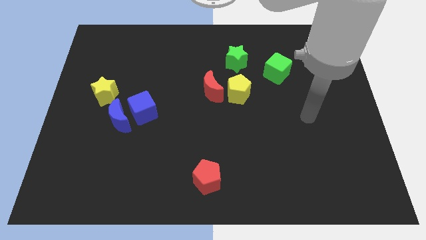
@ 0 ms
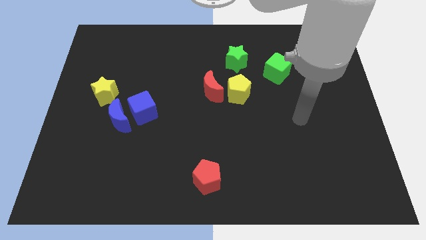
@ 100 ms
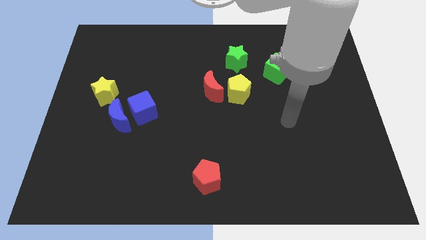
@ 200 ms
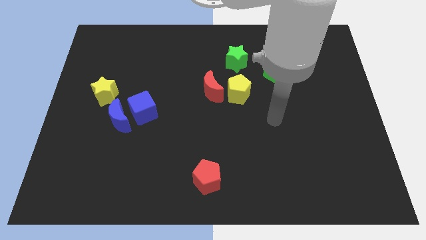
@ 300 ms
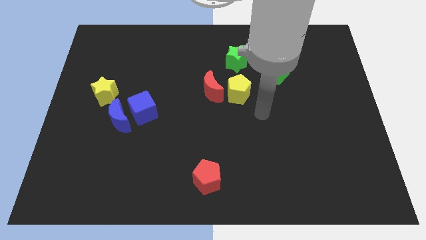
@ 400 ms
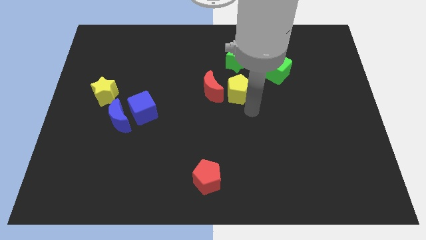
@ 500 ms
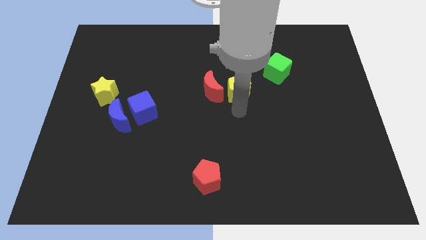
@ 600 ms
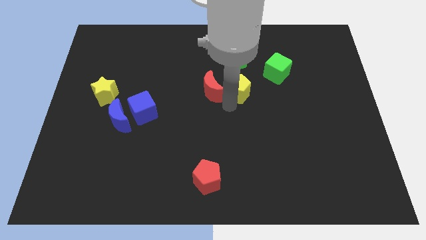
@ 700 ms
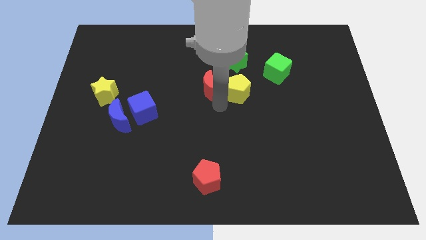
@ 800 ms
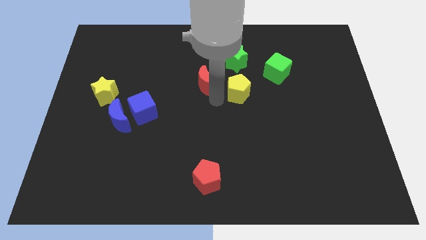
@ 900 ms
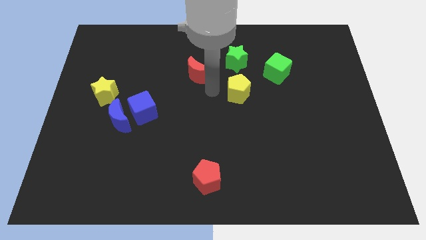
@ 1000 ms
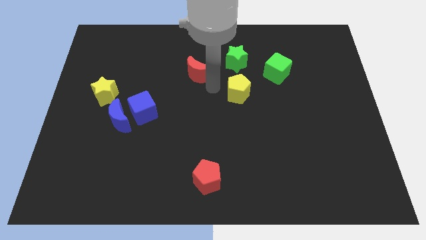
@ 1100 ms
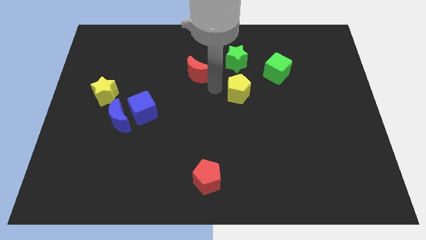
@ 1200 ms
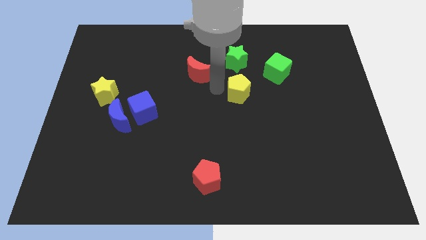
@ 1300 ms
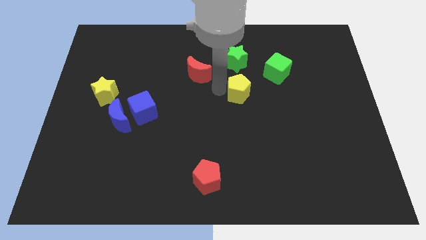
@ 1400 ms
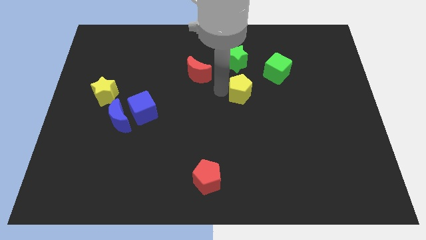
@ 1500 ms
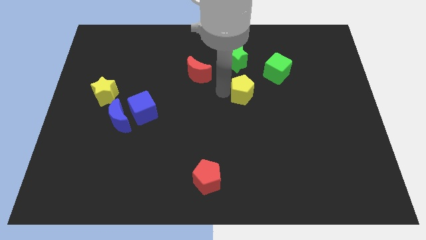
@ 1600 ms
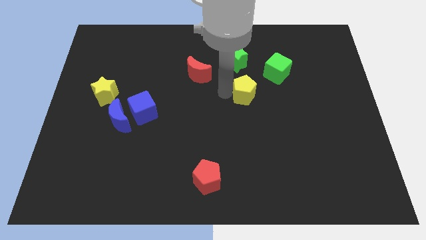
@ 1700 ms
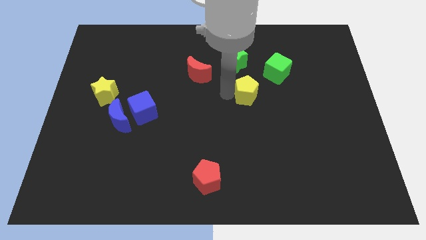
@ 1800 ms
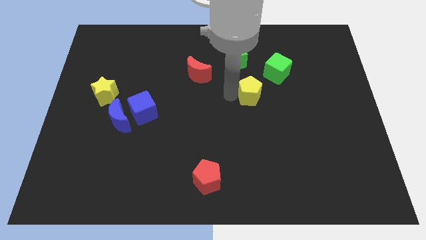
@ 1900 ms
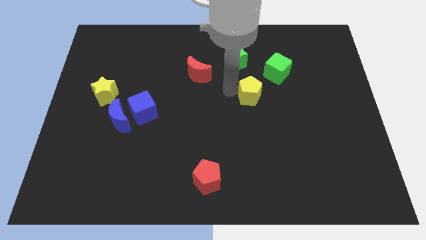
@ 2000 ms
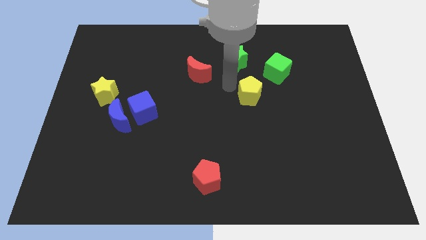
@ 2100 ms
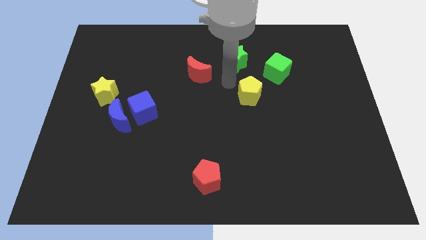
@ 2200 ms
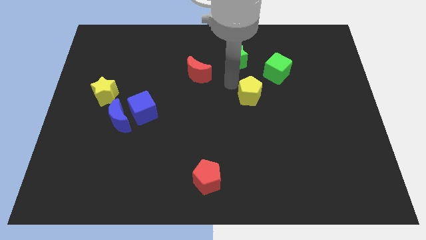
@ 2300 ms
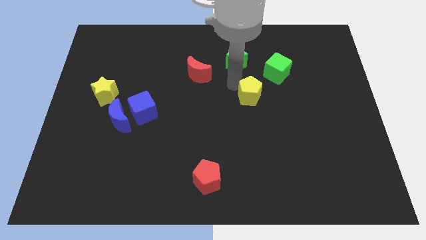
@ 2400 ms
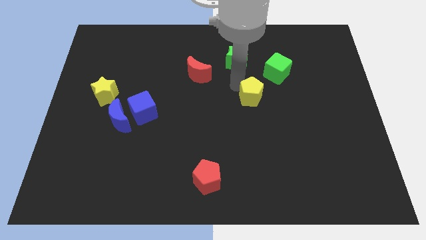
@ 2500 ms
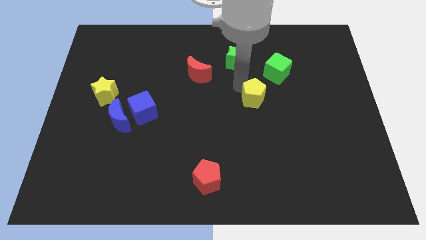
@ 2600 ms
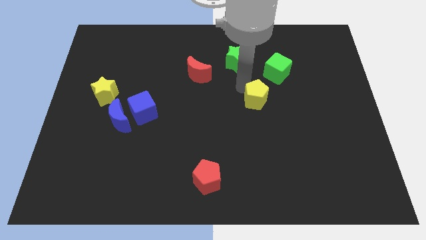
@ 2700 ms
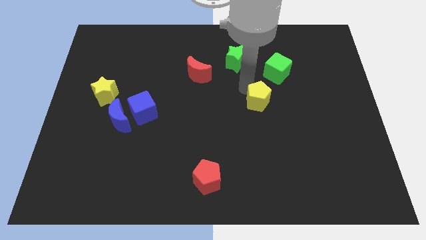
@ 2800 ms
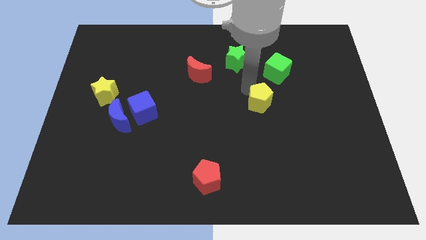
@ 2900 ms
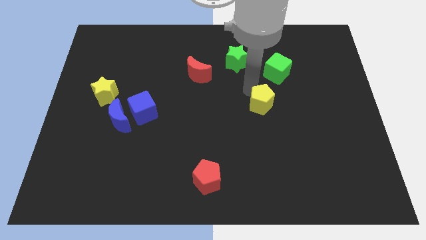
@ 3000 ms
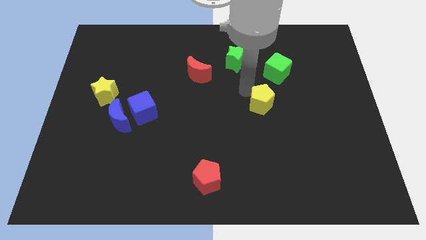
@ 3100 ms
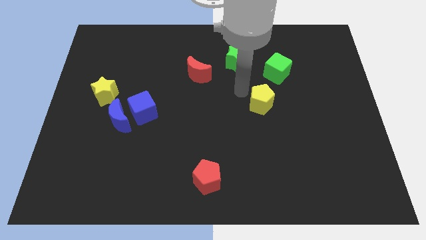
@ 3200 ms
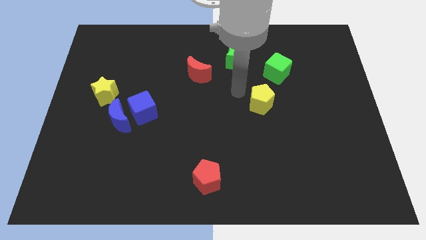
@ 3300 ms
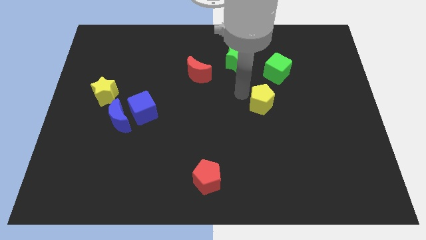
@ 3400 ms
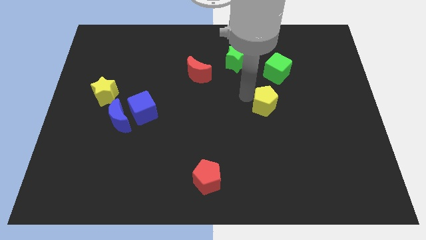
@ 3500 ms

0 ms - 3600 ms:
slightly move the yellow pentagon down and to the right

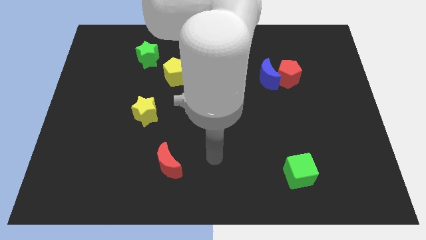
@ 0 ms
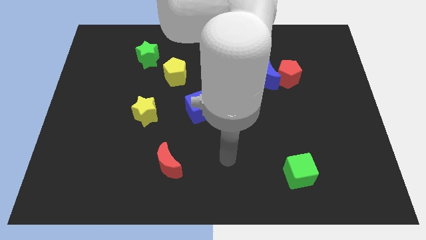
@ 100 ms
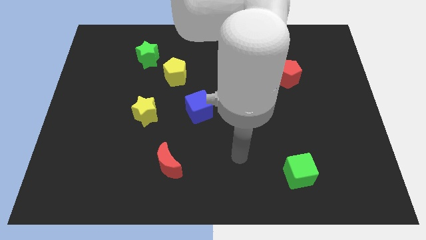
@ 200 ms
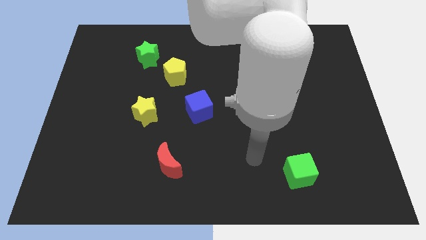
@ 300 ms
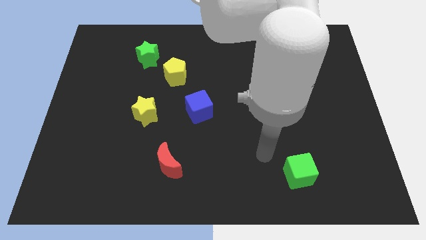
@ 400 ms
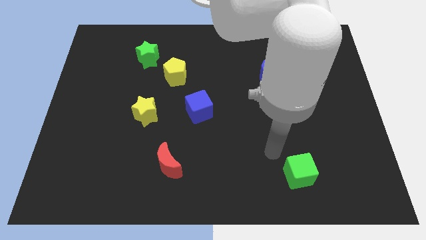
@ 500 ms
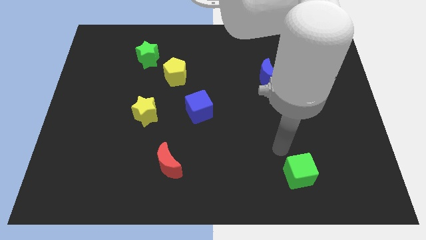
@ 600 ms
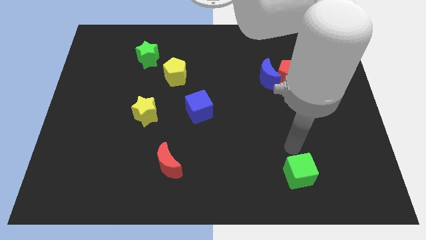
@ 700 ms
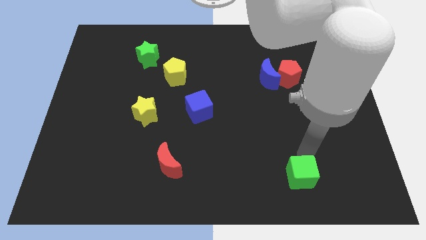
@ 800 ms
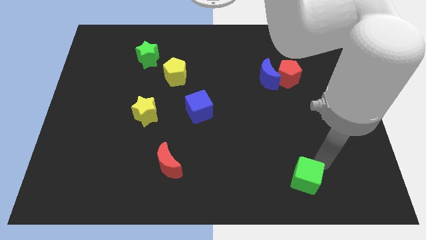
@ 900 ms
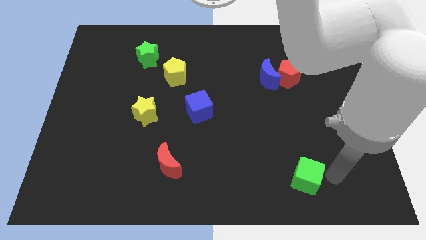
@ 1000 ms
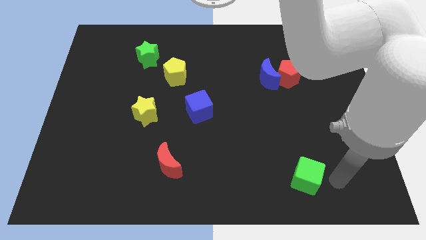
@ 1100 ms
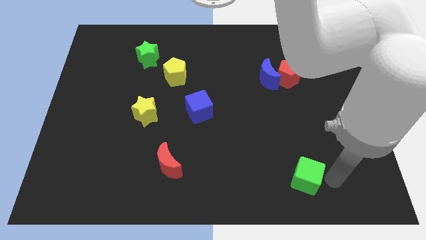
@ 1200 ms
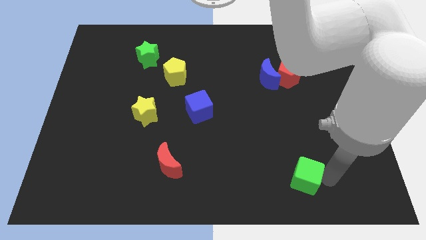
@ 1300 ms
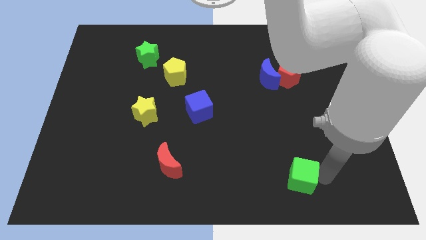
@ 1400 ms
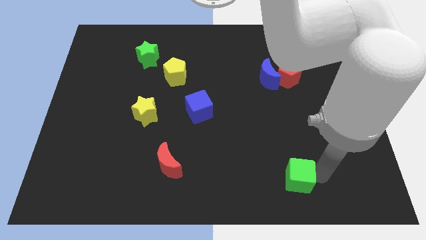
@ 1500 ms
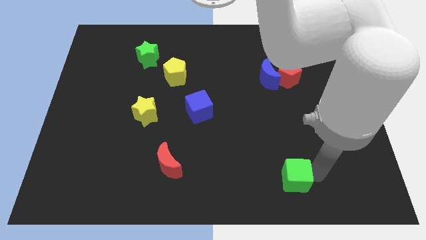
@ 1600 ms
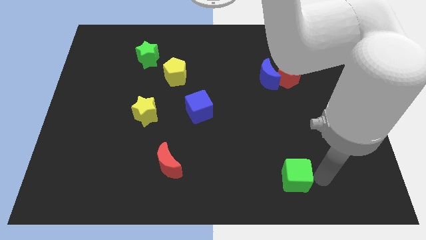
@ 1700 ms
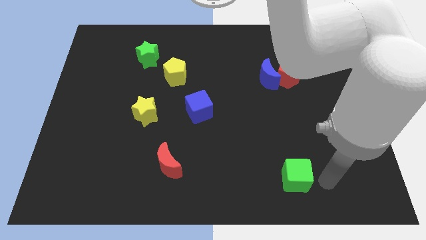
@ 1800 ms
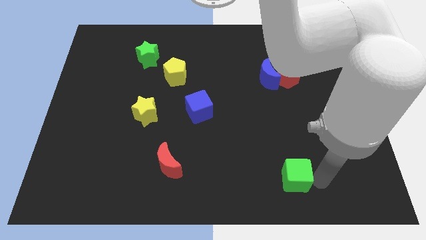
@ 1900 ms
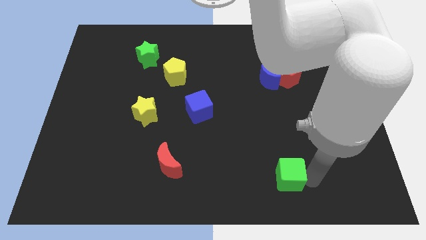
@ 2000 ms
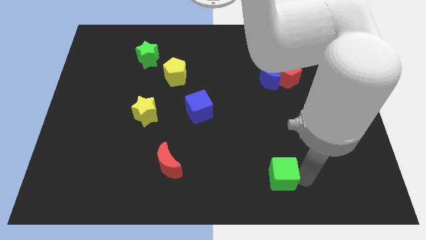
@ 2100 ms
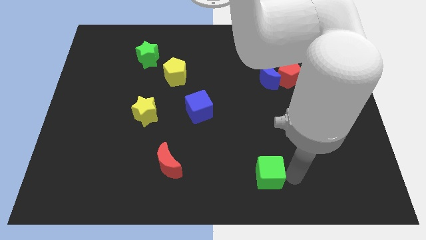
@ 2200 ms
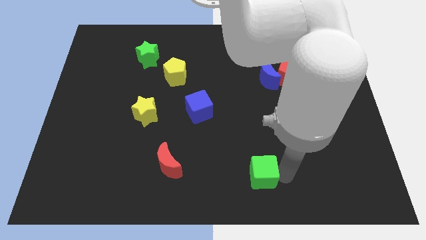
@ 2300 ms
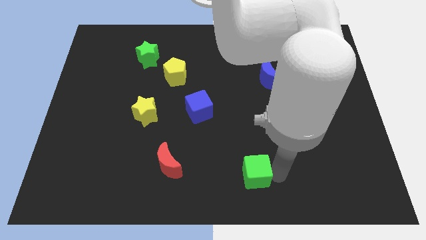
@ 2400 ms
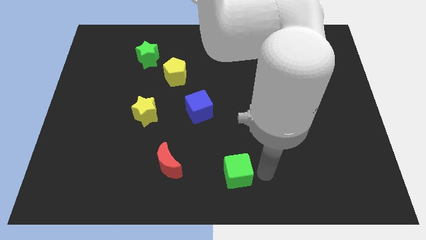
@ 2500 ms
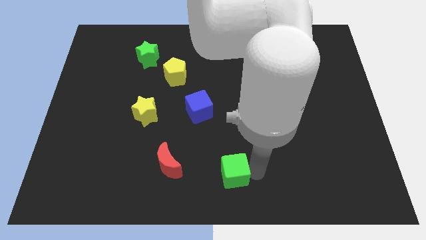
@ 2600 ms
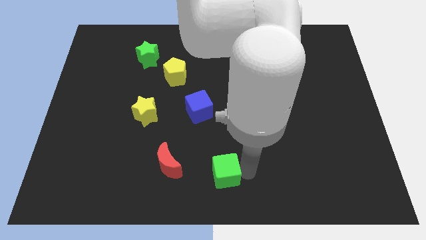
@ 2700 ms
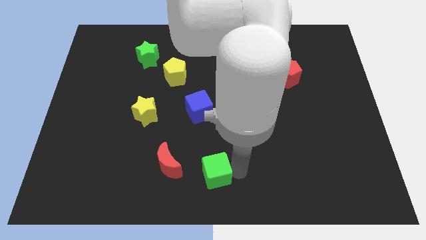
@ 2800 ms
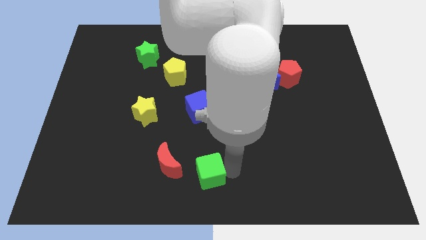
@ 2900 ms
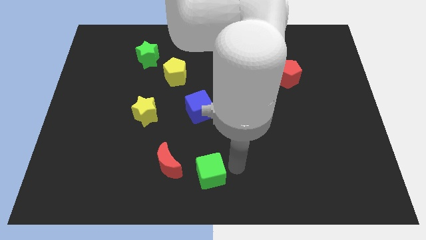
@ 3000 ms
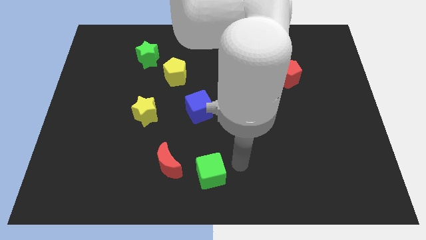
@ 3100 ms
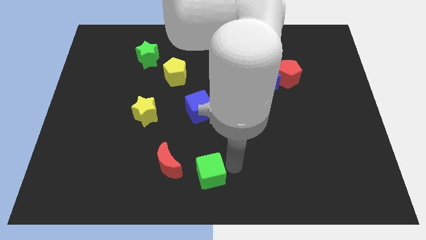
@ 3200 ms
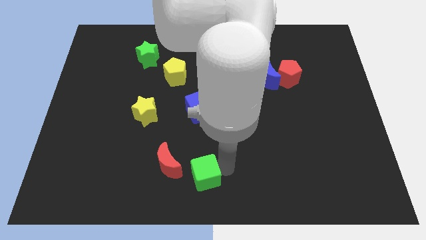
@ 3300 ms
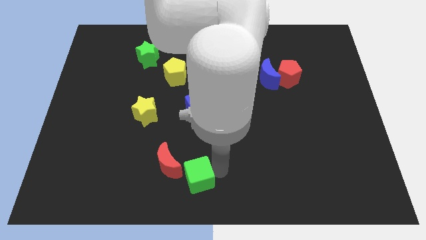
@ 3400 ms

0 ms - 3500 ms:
push the green cube to the left

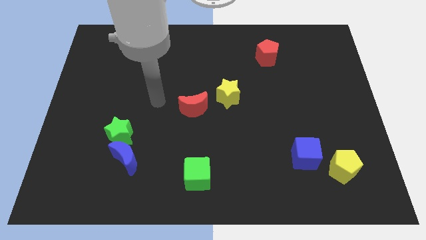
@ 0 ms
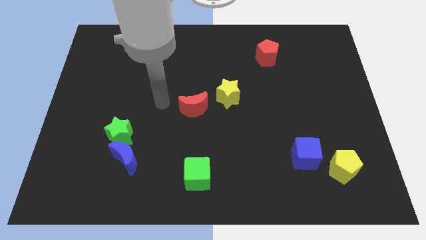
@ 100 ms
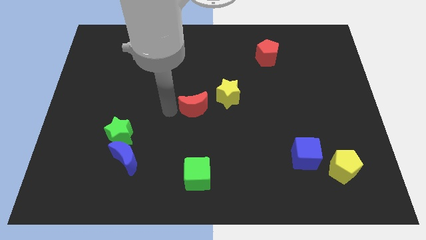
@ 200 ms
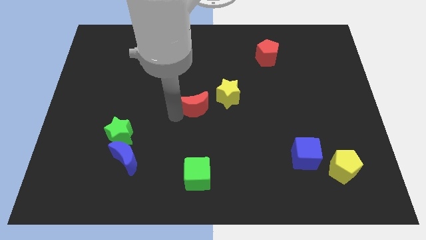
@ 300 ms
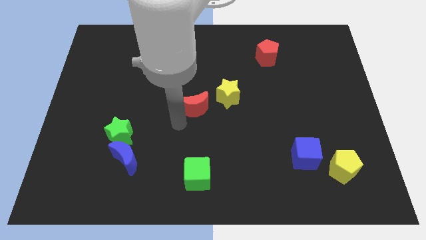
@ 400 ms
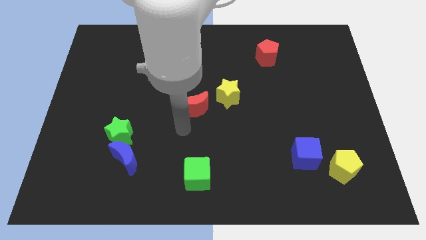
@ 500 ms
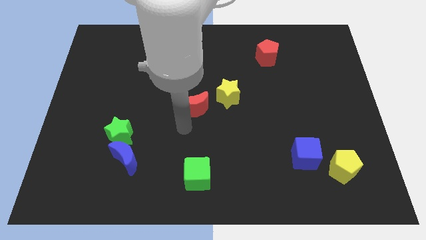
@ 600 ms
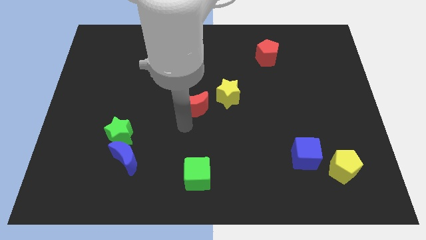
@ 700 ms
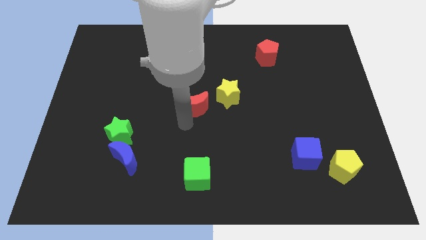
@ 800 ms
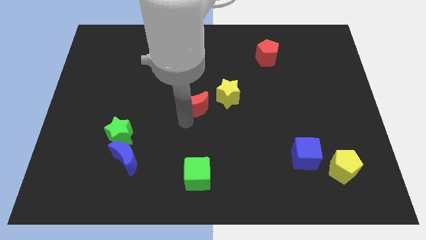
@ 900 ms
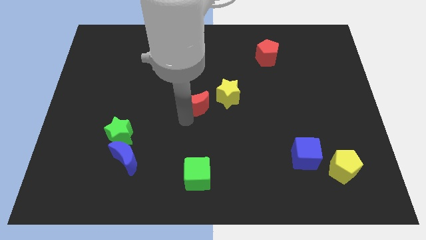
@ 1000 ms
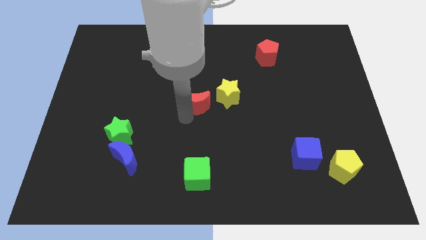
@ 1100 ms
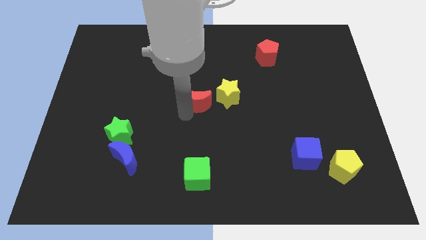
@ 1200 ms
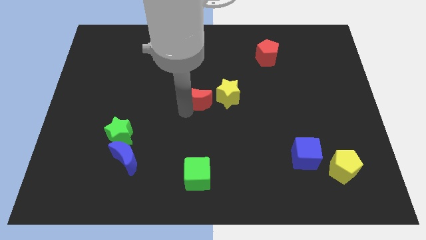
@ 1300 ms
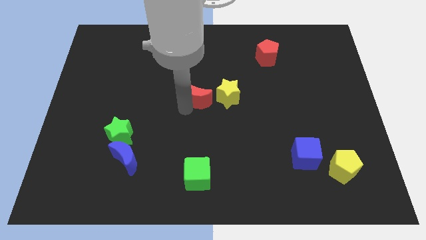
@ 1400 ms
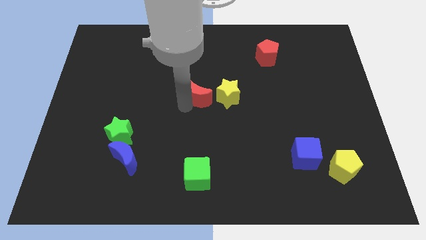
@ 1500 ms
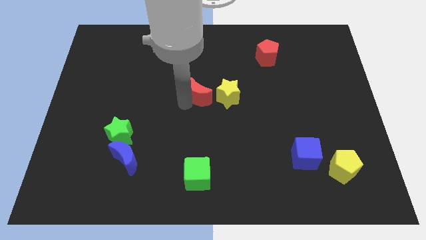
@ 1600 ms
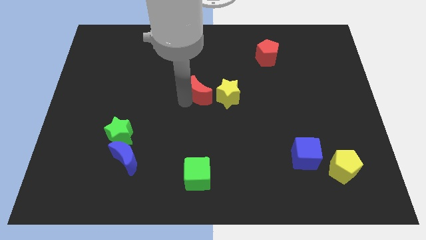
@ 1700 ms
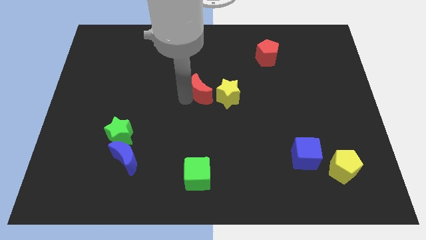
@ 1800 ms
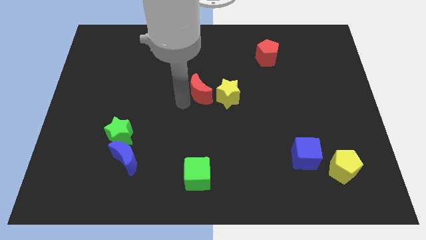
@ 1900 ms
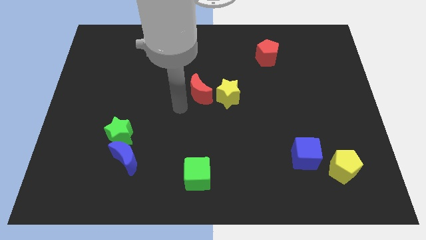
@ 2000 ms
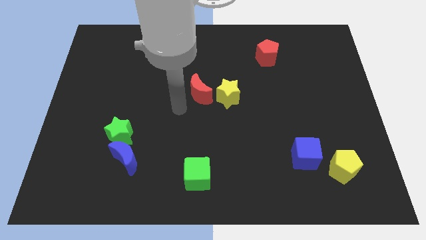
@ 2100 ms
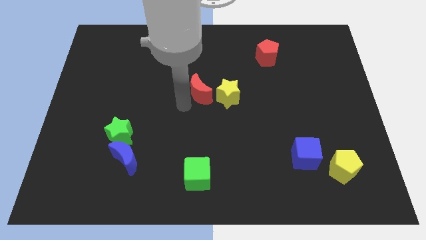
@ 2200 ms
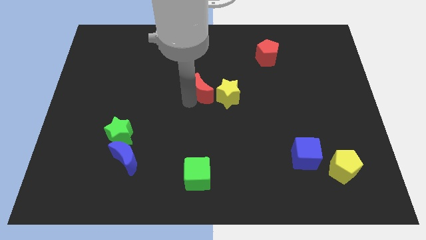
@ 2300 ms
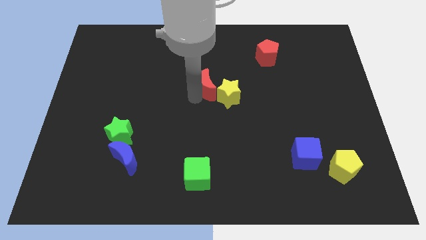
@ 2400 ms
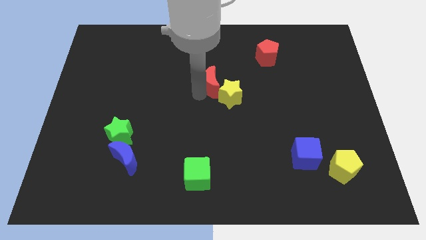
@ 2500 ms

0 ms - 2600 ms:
slide the red moon upwards and then right a little bit
